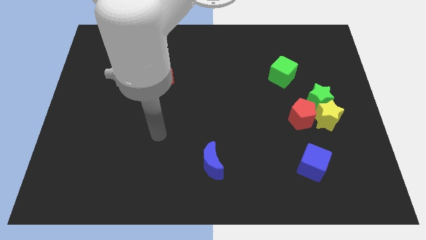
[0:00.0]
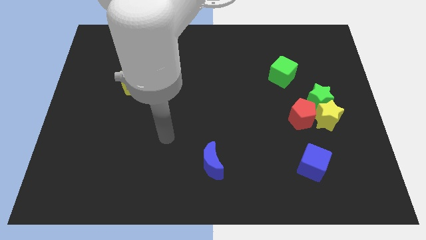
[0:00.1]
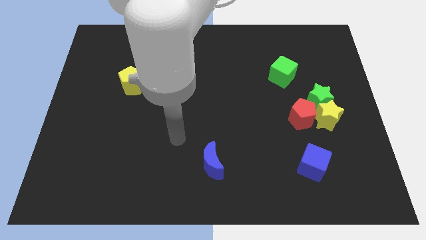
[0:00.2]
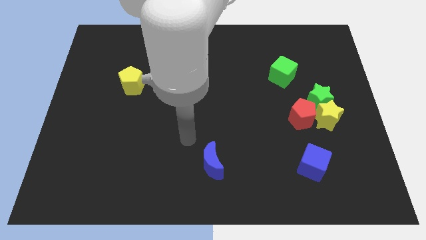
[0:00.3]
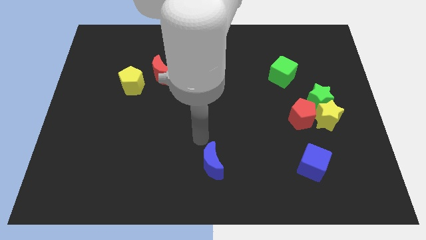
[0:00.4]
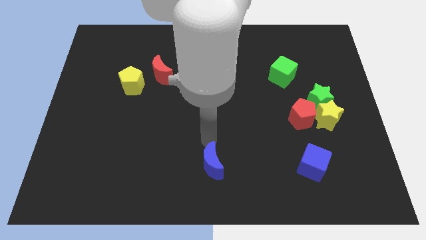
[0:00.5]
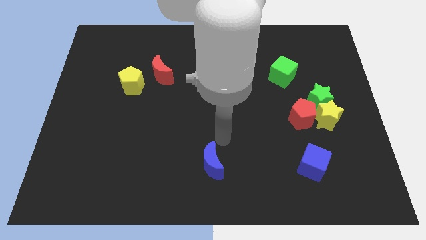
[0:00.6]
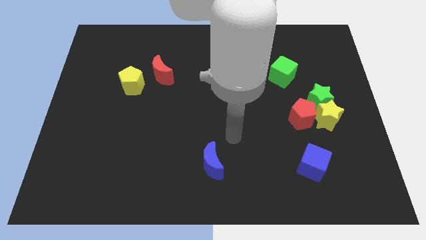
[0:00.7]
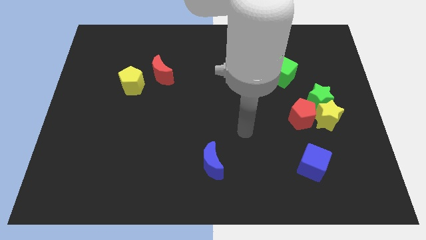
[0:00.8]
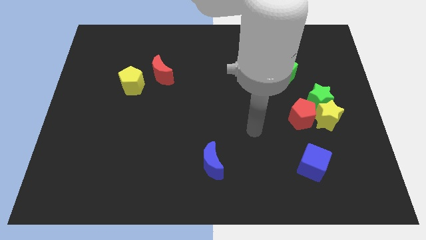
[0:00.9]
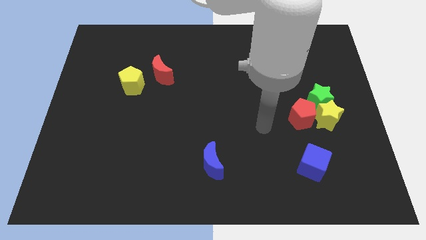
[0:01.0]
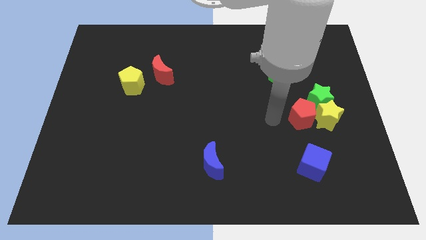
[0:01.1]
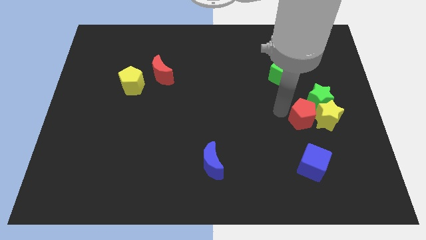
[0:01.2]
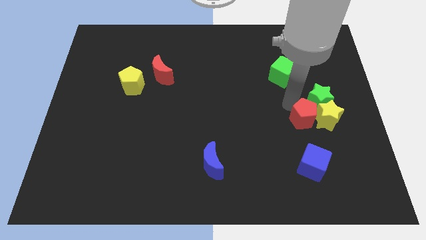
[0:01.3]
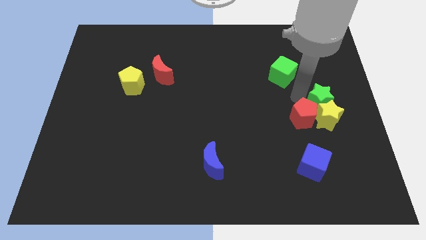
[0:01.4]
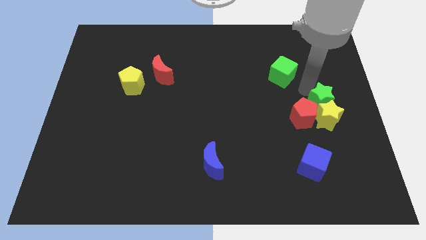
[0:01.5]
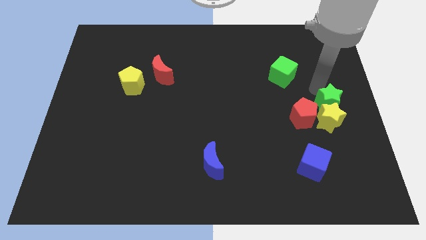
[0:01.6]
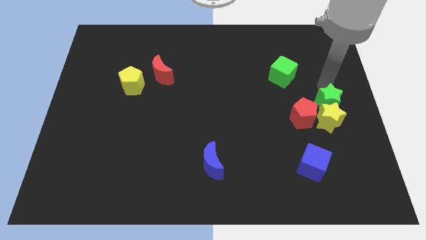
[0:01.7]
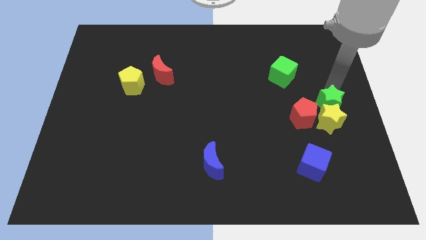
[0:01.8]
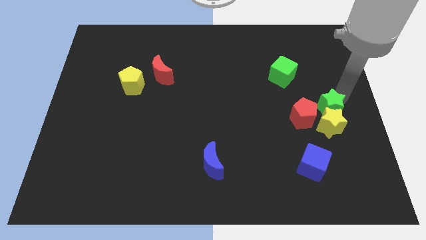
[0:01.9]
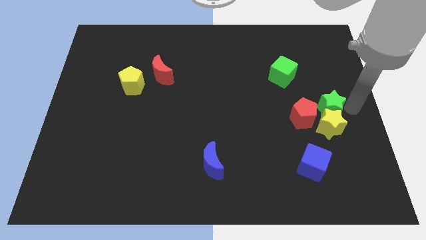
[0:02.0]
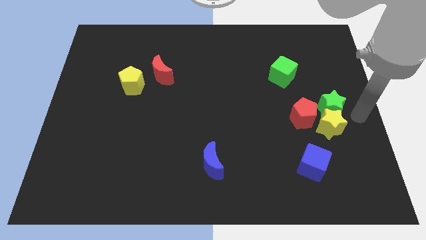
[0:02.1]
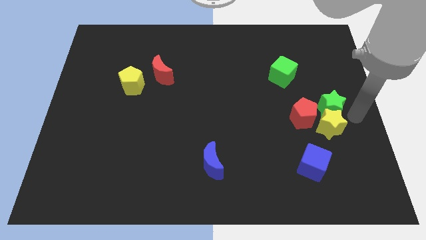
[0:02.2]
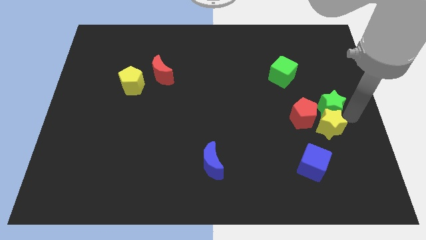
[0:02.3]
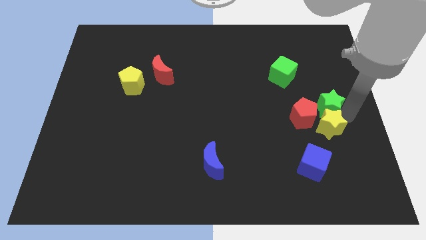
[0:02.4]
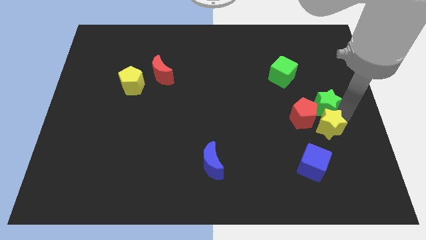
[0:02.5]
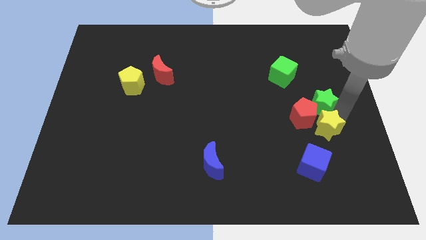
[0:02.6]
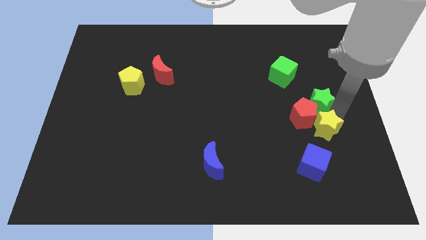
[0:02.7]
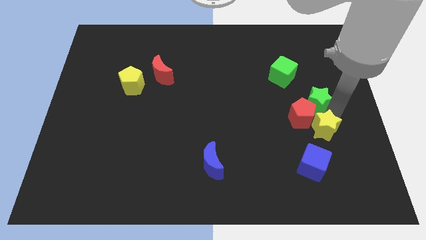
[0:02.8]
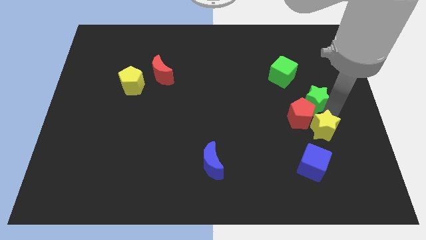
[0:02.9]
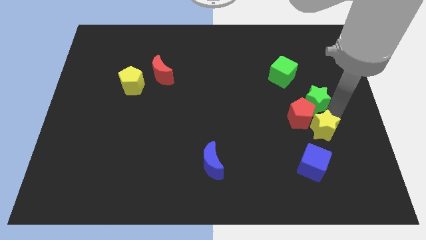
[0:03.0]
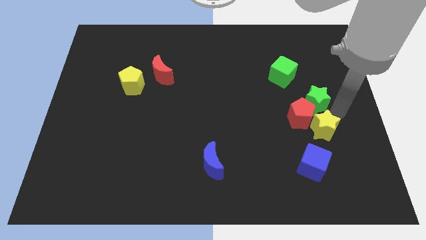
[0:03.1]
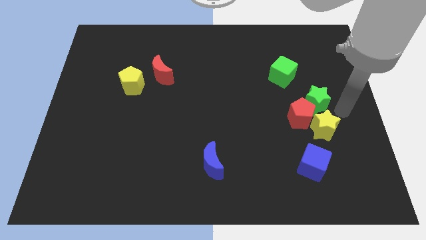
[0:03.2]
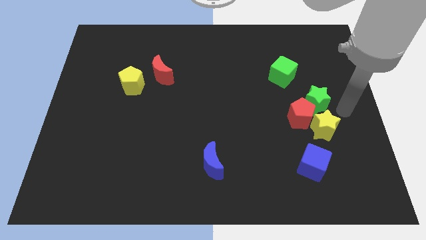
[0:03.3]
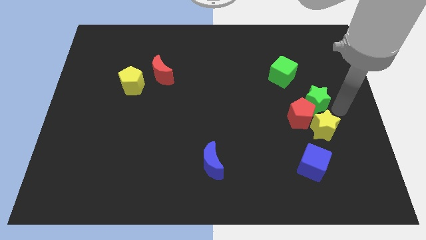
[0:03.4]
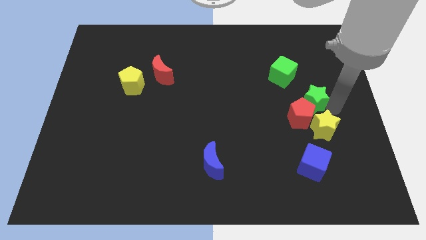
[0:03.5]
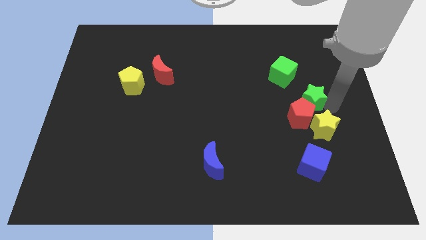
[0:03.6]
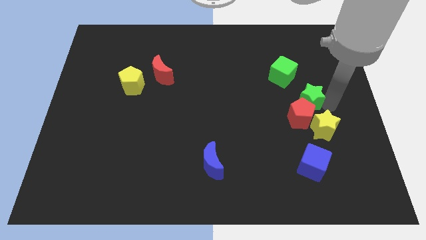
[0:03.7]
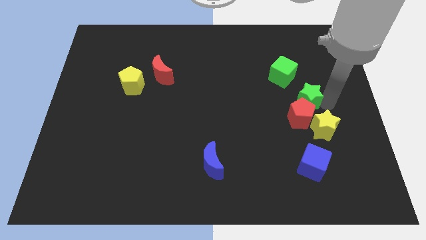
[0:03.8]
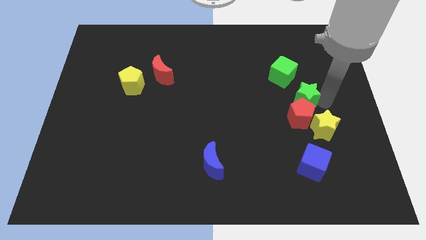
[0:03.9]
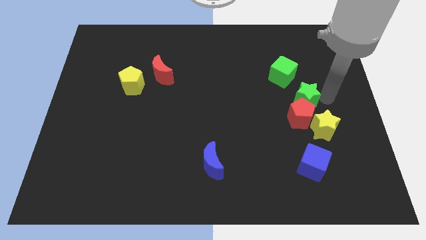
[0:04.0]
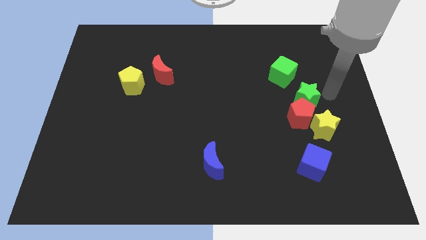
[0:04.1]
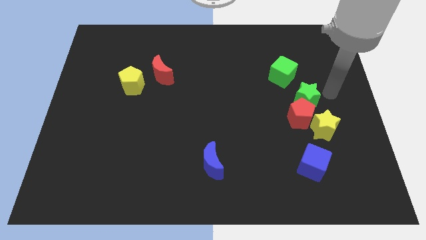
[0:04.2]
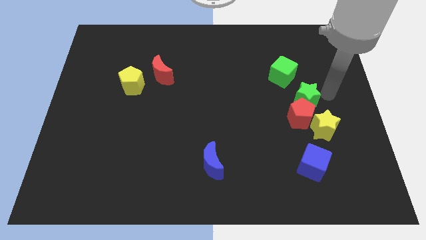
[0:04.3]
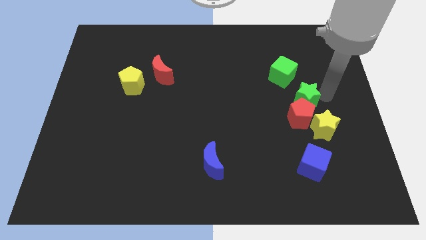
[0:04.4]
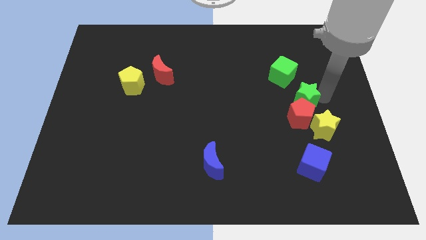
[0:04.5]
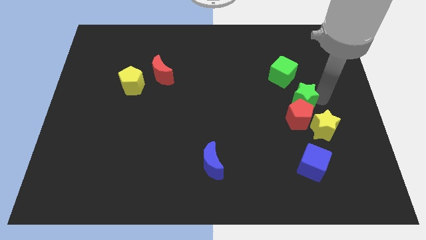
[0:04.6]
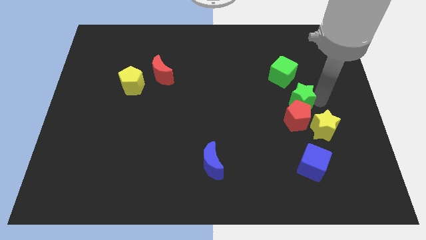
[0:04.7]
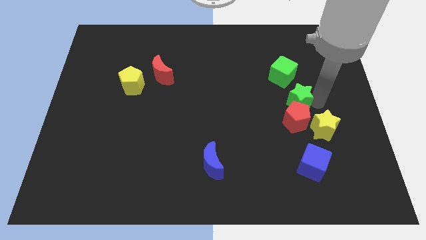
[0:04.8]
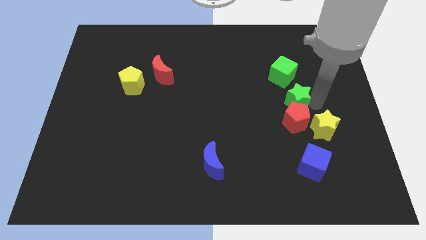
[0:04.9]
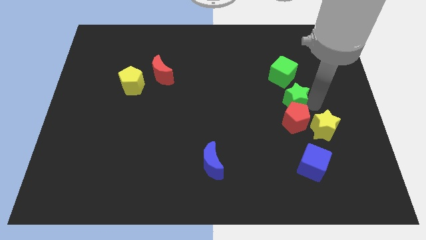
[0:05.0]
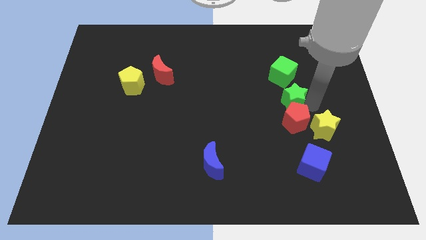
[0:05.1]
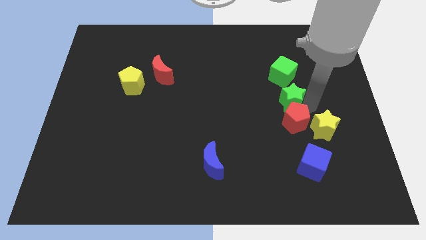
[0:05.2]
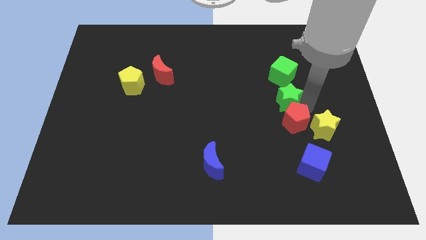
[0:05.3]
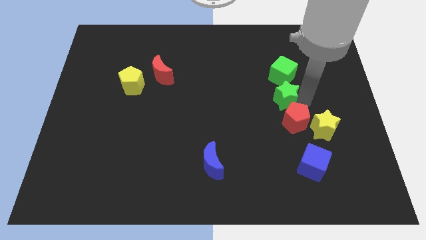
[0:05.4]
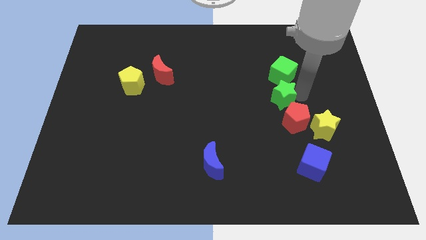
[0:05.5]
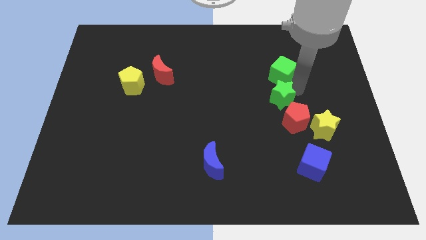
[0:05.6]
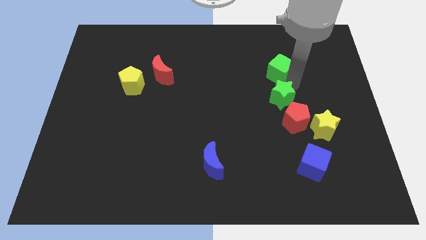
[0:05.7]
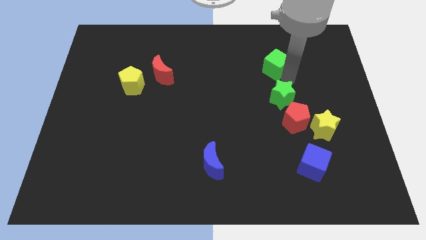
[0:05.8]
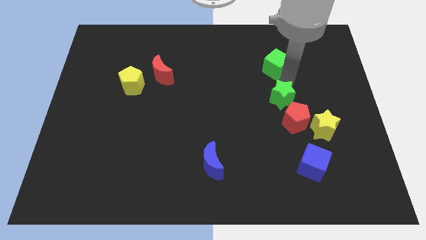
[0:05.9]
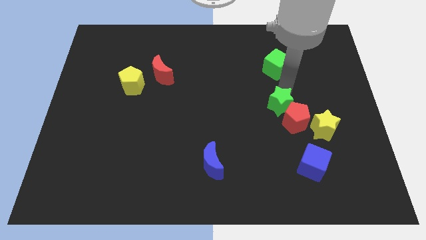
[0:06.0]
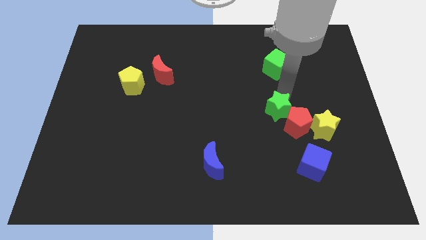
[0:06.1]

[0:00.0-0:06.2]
slightly move the green star diagonally downwards and to the left

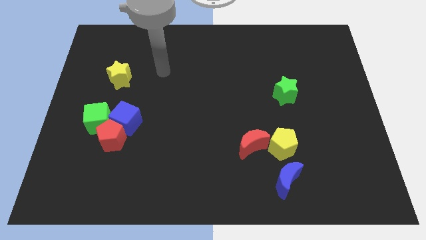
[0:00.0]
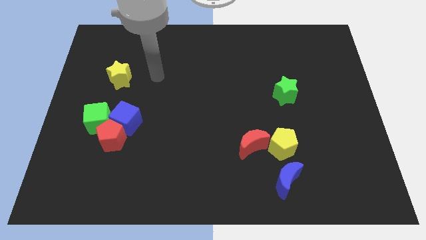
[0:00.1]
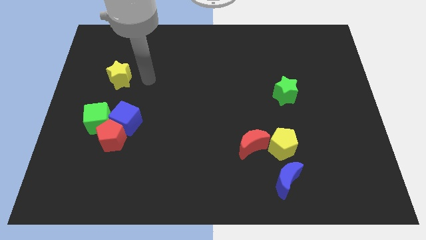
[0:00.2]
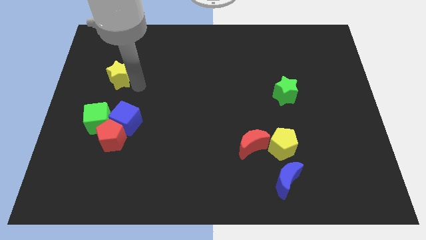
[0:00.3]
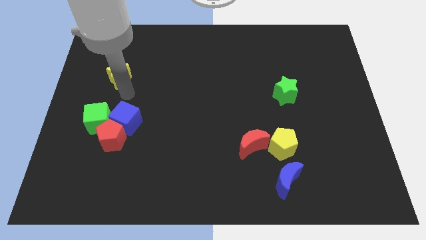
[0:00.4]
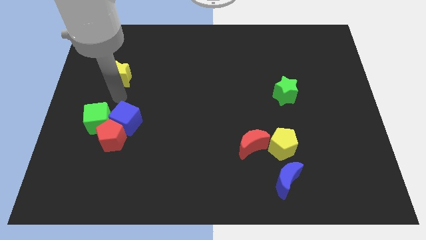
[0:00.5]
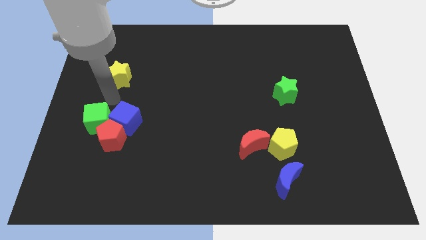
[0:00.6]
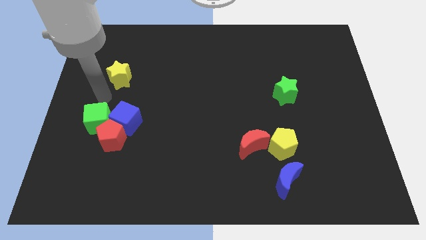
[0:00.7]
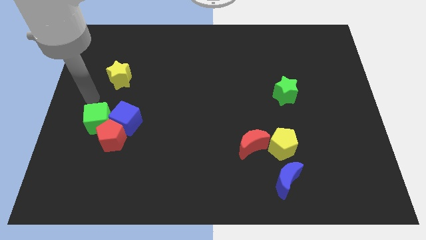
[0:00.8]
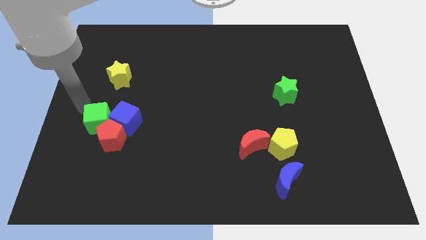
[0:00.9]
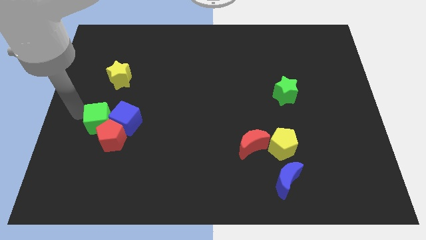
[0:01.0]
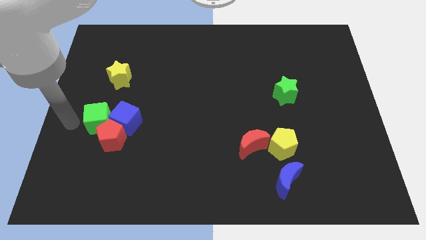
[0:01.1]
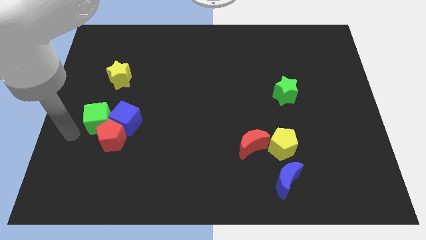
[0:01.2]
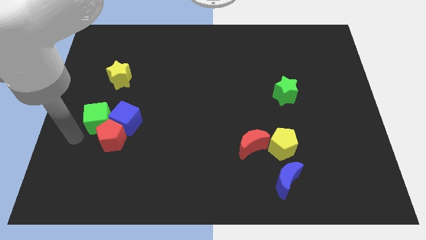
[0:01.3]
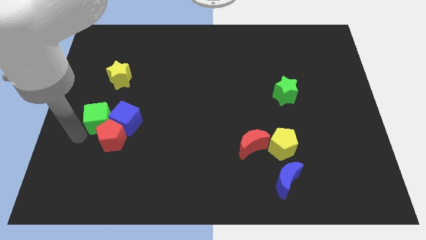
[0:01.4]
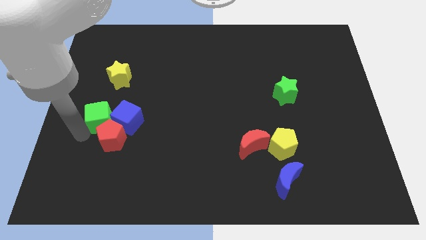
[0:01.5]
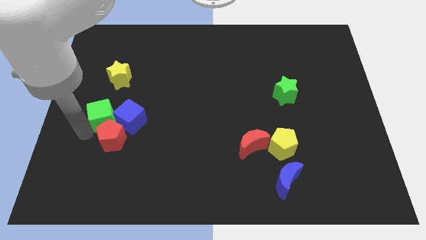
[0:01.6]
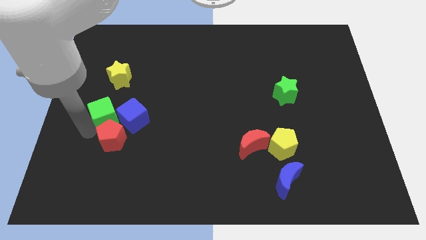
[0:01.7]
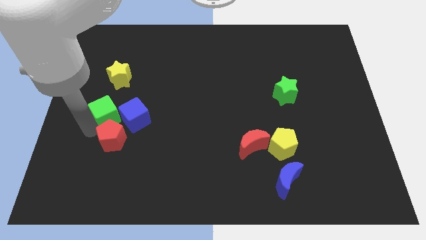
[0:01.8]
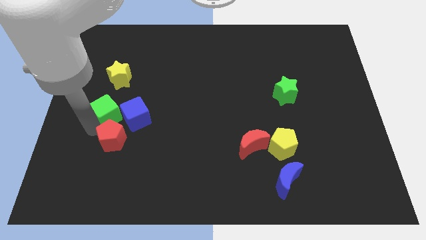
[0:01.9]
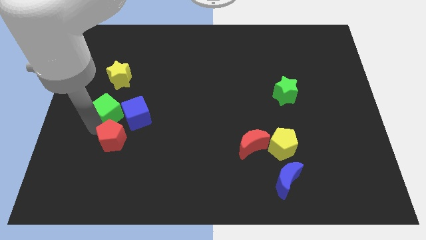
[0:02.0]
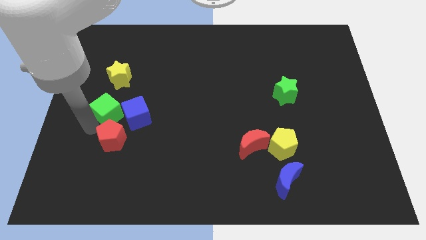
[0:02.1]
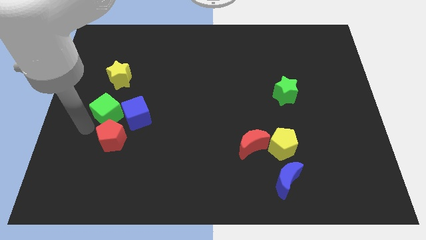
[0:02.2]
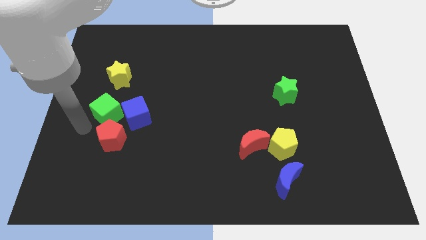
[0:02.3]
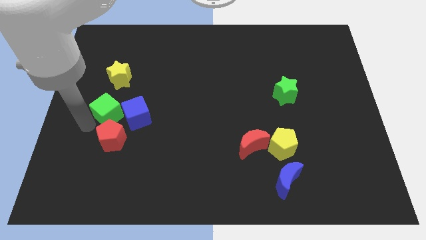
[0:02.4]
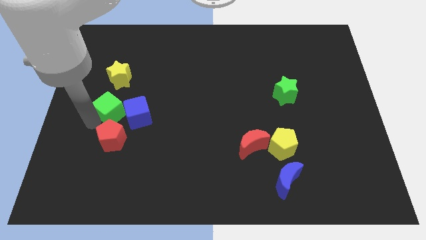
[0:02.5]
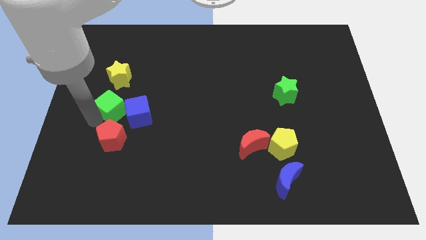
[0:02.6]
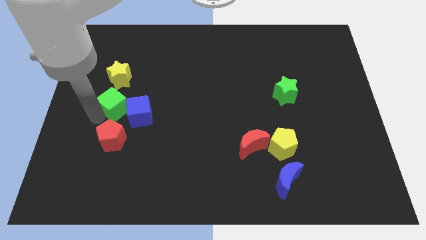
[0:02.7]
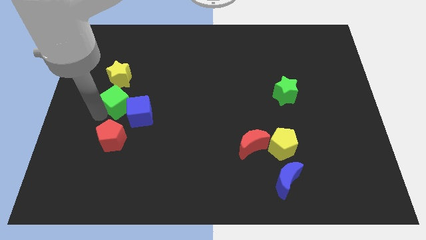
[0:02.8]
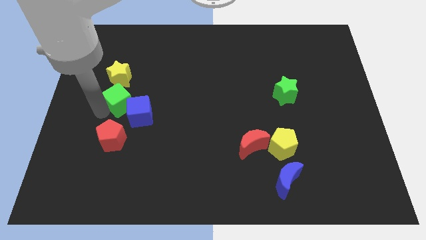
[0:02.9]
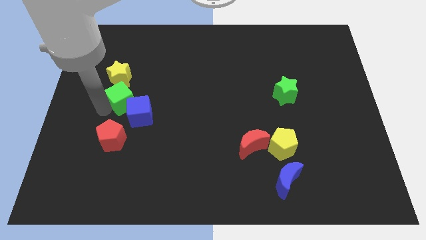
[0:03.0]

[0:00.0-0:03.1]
push the green cube upwards and right diagonally somewhat
